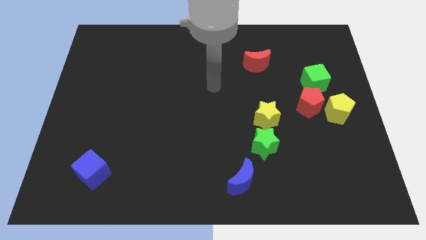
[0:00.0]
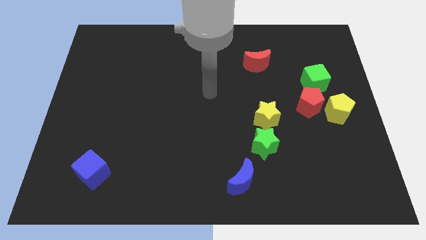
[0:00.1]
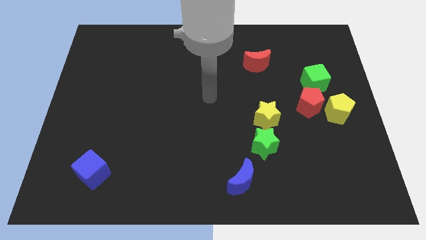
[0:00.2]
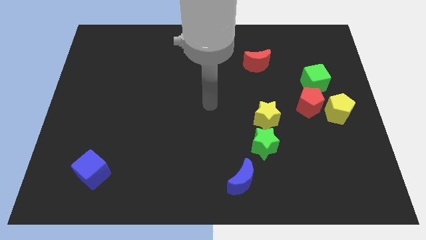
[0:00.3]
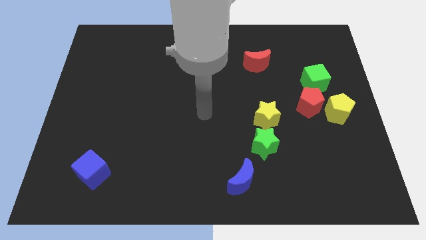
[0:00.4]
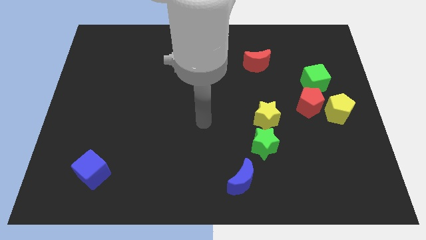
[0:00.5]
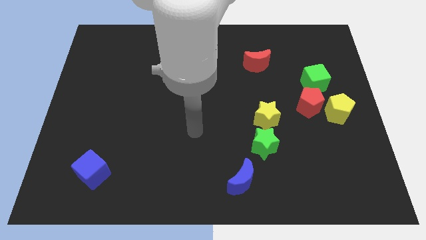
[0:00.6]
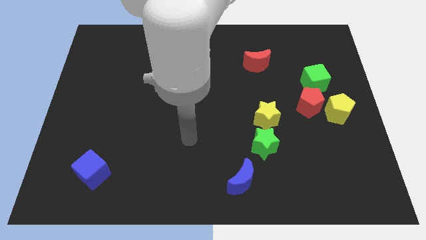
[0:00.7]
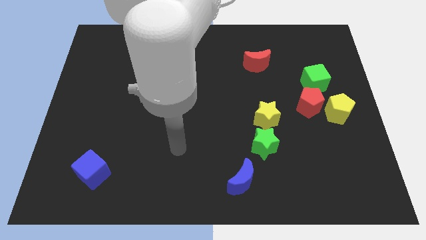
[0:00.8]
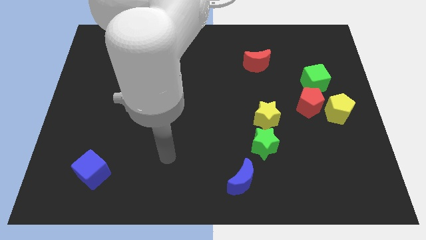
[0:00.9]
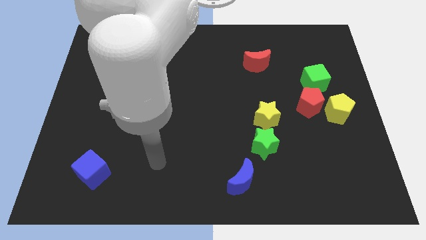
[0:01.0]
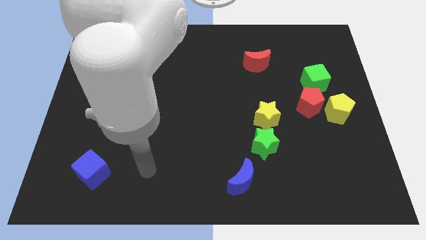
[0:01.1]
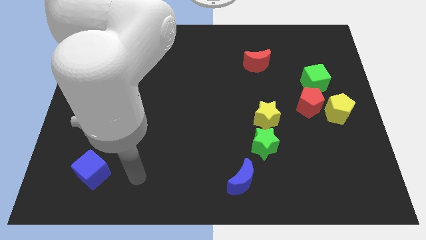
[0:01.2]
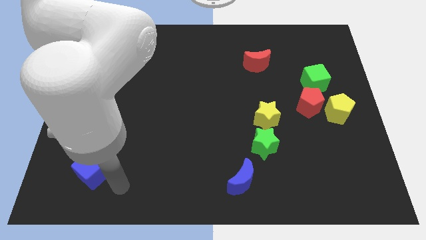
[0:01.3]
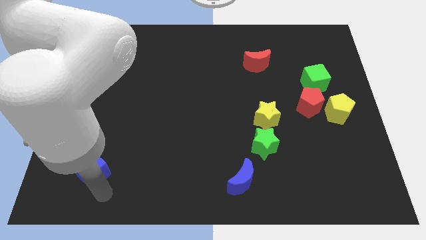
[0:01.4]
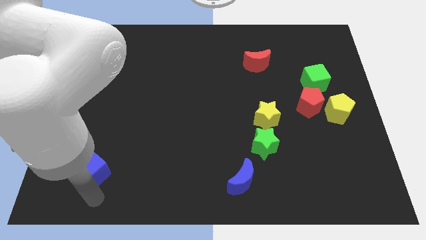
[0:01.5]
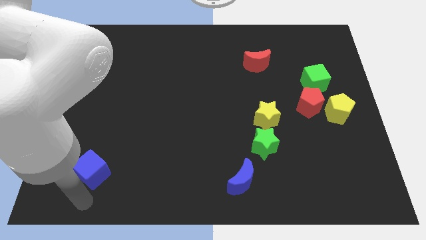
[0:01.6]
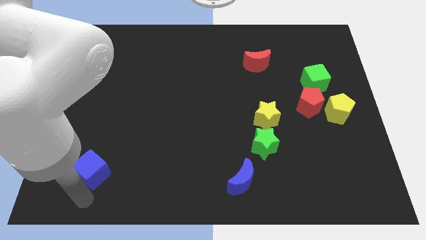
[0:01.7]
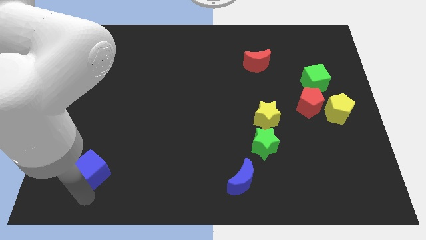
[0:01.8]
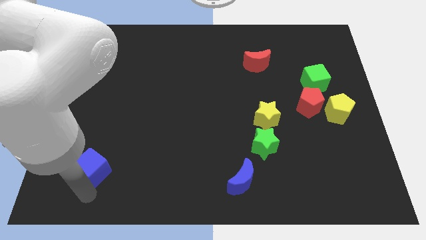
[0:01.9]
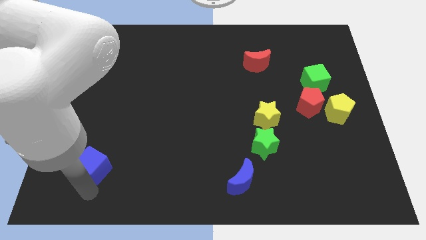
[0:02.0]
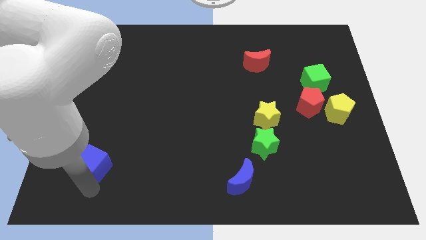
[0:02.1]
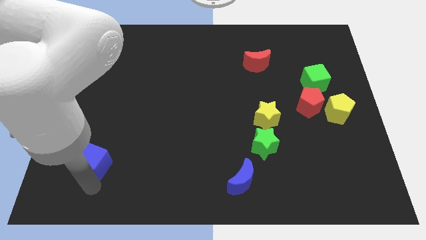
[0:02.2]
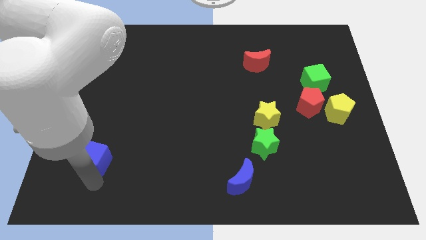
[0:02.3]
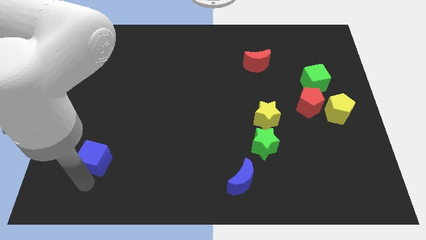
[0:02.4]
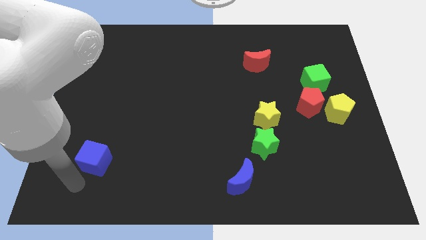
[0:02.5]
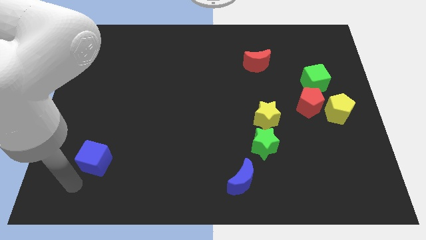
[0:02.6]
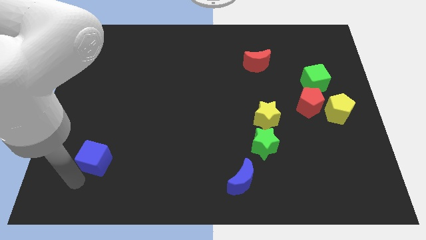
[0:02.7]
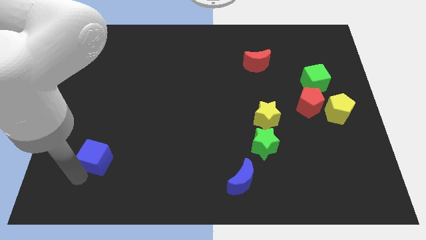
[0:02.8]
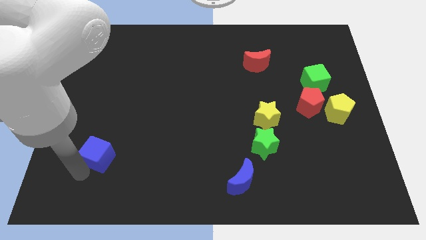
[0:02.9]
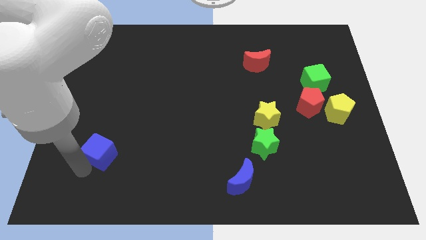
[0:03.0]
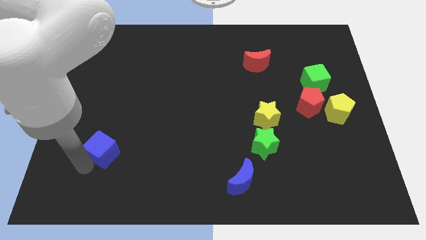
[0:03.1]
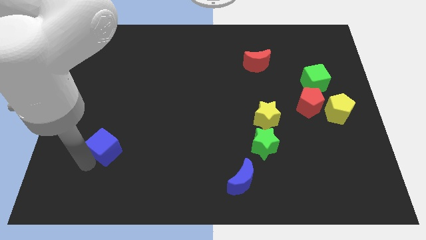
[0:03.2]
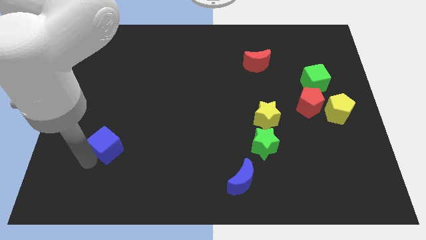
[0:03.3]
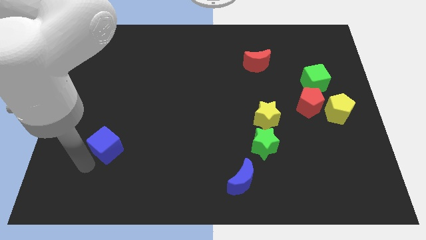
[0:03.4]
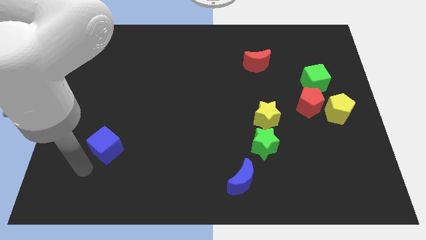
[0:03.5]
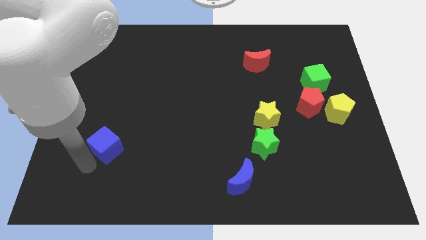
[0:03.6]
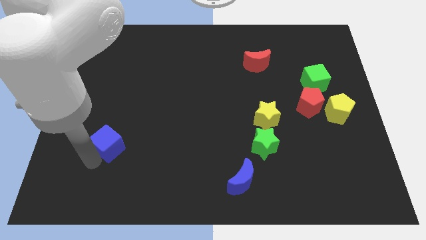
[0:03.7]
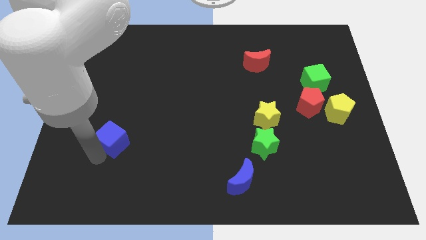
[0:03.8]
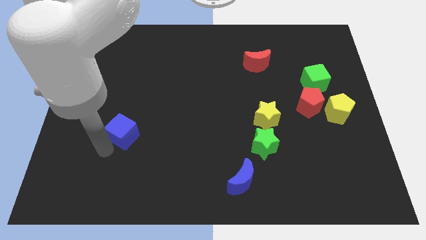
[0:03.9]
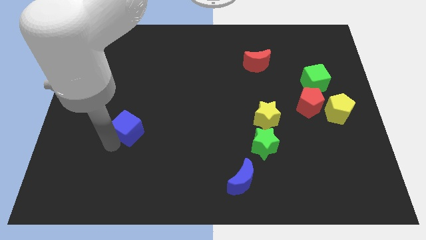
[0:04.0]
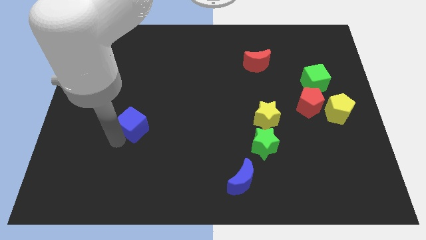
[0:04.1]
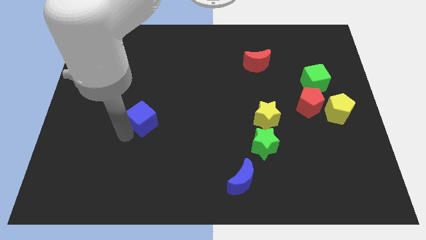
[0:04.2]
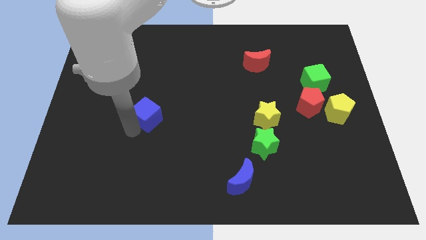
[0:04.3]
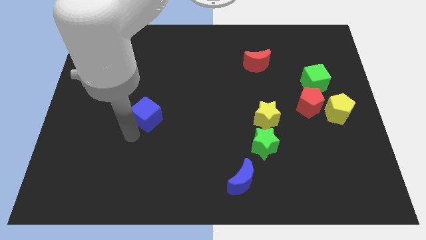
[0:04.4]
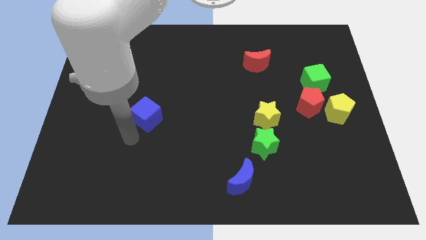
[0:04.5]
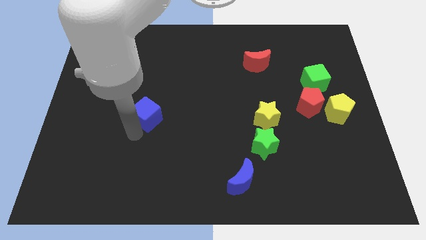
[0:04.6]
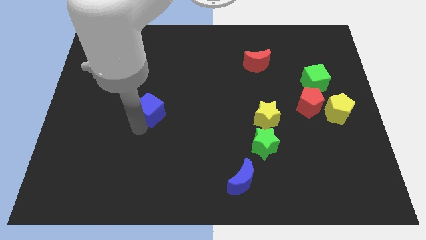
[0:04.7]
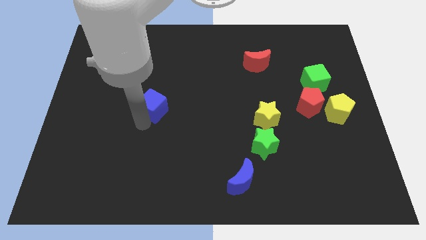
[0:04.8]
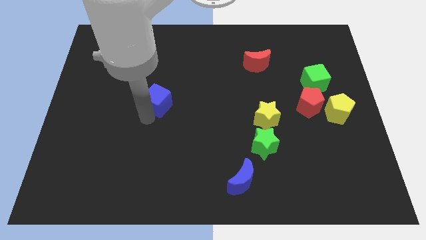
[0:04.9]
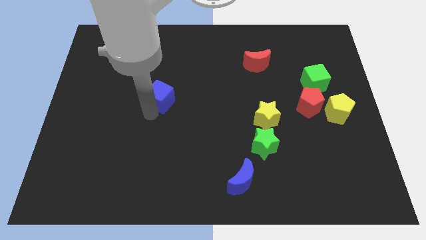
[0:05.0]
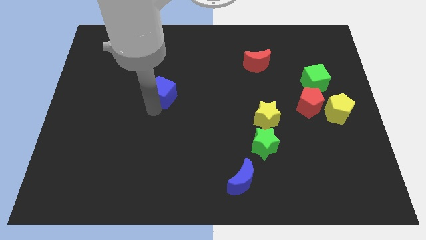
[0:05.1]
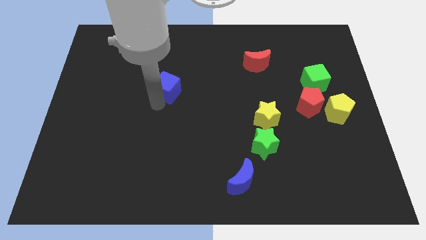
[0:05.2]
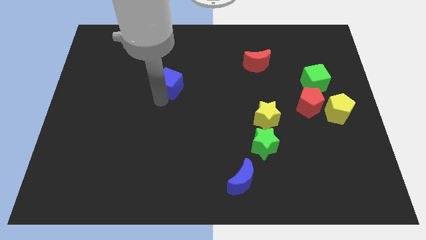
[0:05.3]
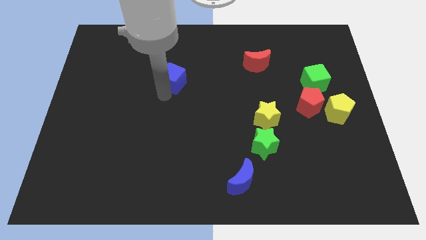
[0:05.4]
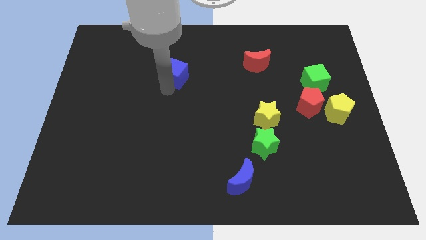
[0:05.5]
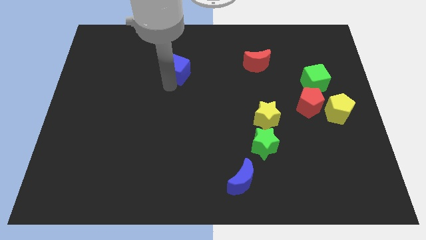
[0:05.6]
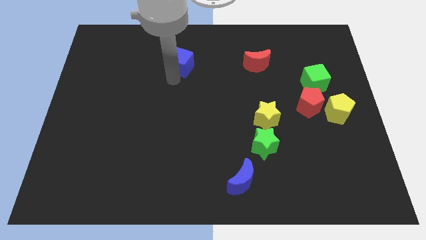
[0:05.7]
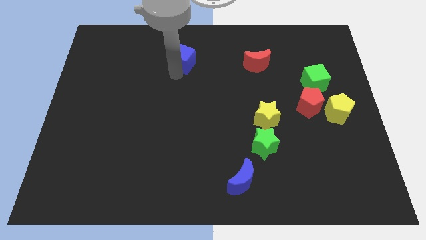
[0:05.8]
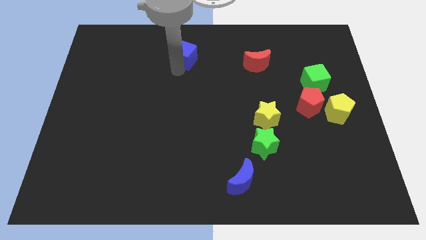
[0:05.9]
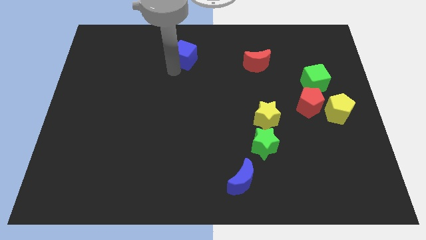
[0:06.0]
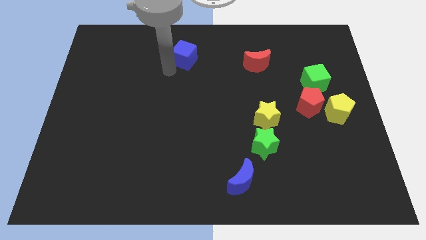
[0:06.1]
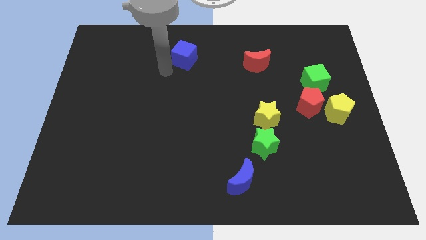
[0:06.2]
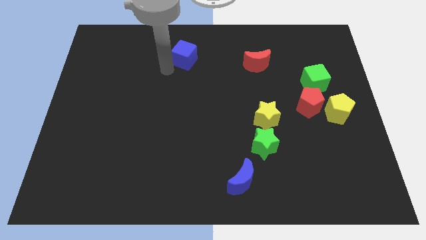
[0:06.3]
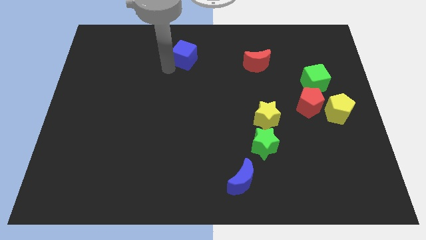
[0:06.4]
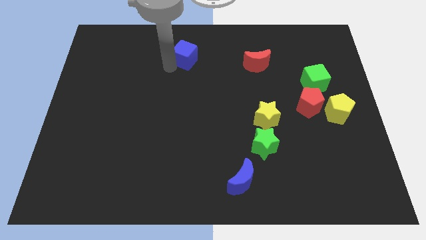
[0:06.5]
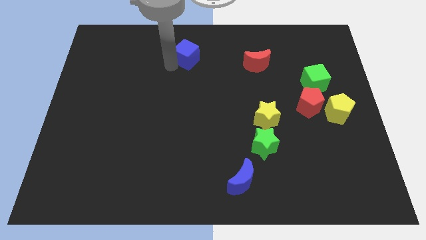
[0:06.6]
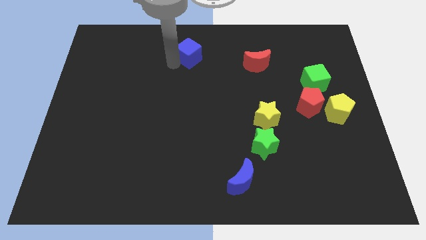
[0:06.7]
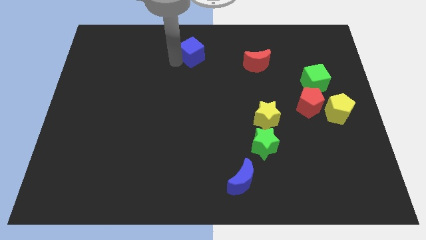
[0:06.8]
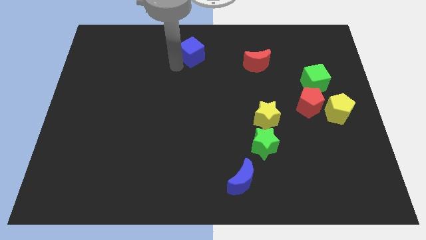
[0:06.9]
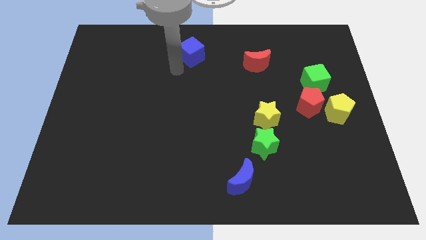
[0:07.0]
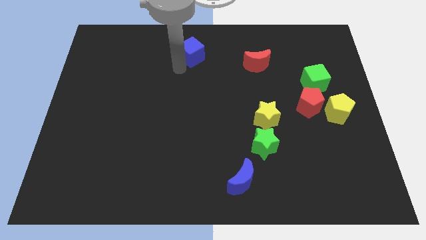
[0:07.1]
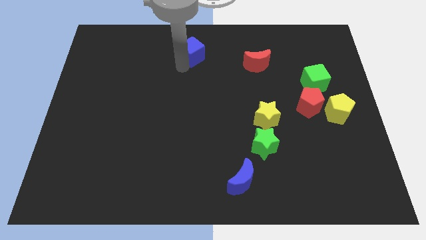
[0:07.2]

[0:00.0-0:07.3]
push the blue cube to the top
